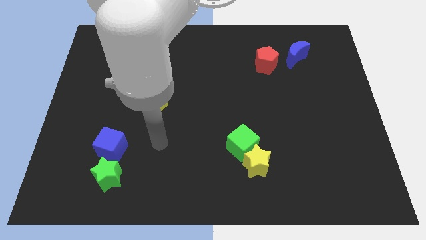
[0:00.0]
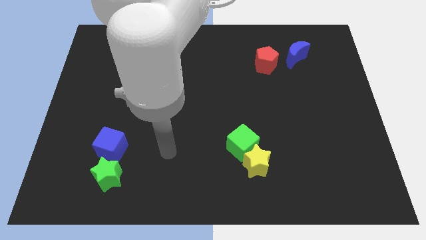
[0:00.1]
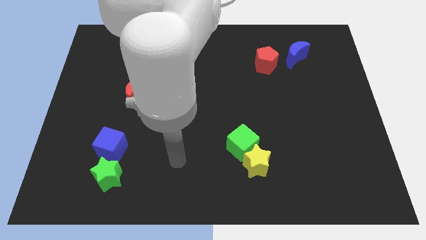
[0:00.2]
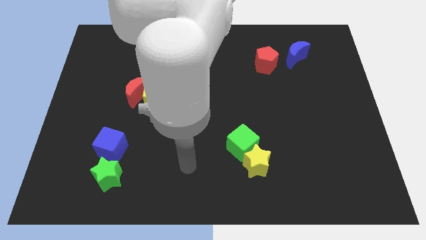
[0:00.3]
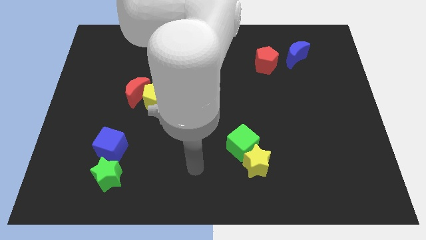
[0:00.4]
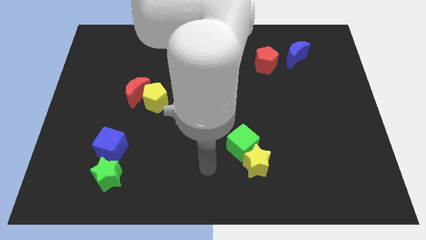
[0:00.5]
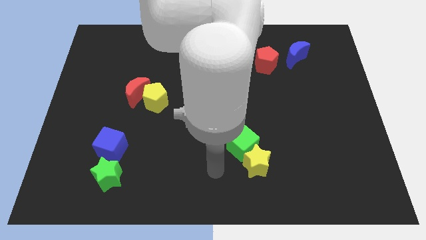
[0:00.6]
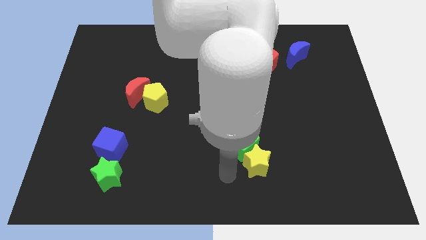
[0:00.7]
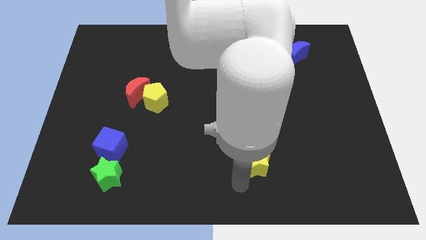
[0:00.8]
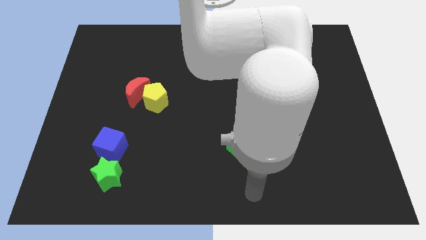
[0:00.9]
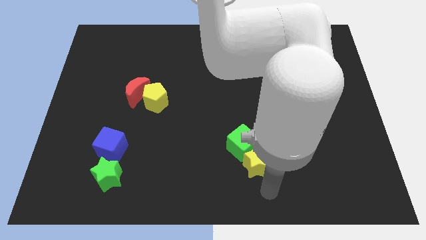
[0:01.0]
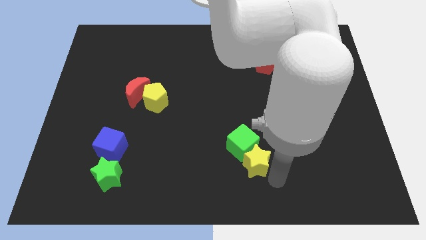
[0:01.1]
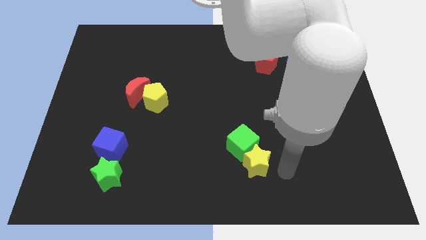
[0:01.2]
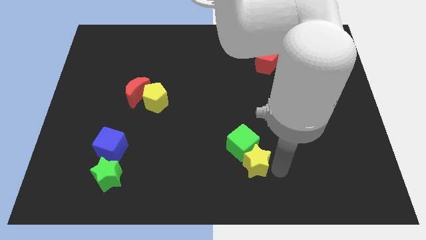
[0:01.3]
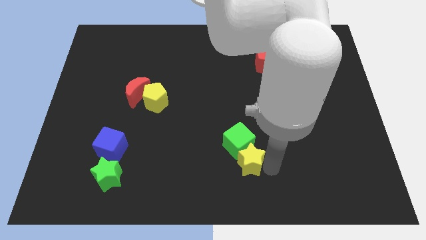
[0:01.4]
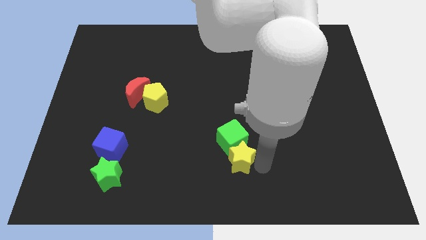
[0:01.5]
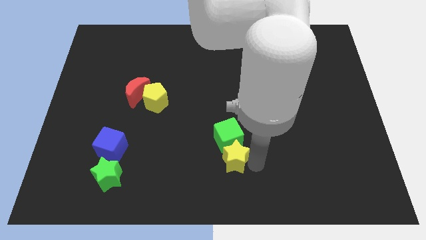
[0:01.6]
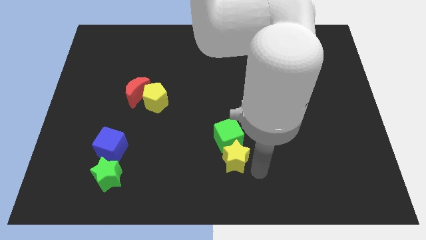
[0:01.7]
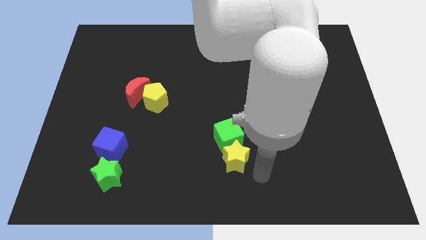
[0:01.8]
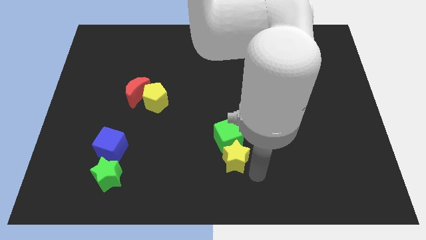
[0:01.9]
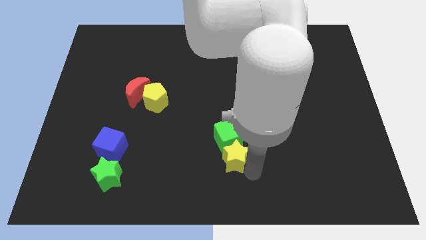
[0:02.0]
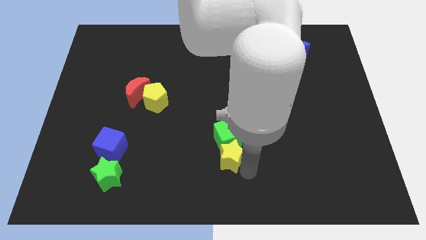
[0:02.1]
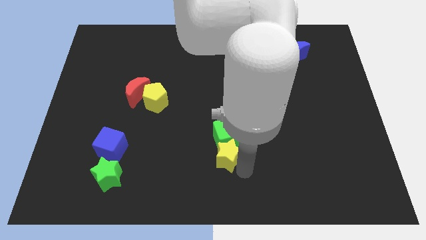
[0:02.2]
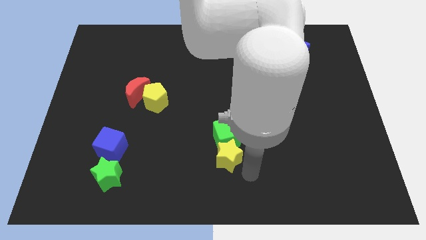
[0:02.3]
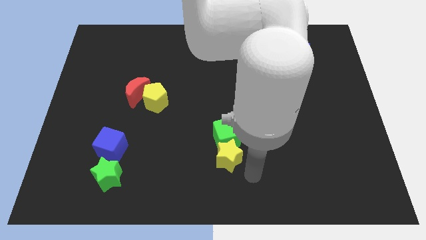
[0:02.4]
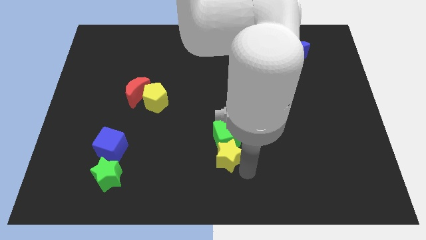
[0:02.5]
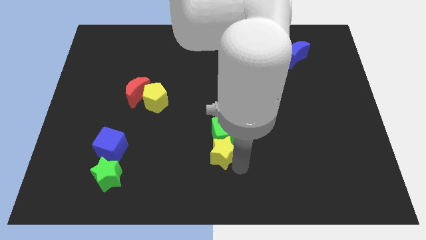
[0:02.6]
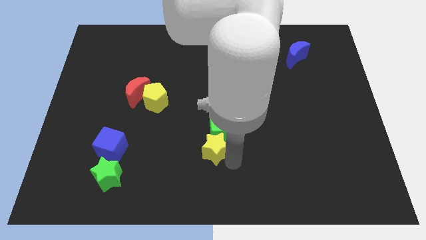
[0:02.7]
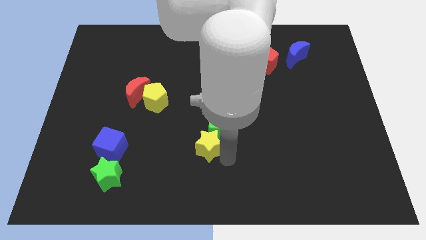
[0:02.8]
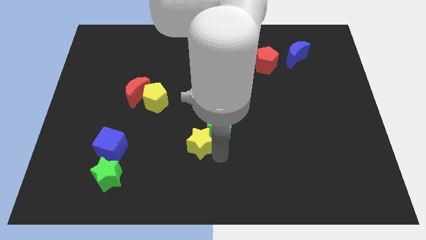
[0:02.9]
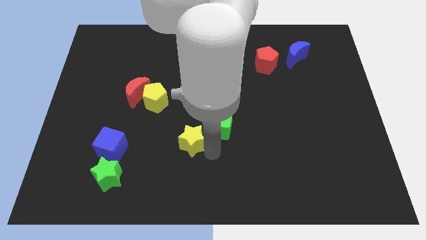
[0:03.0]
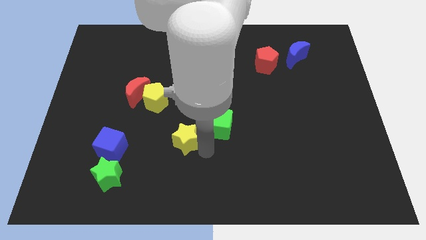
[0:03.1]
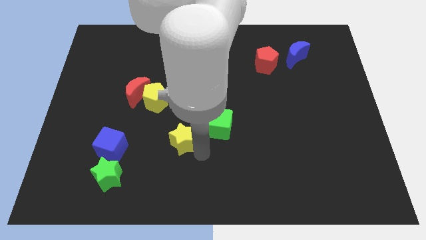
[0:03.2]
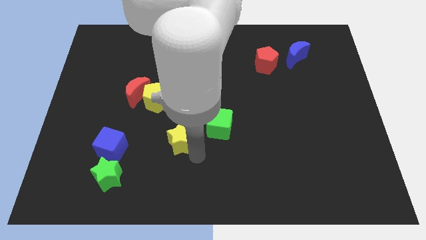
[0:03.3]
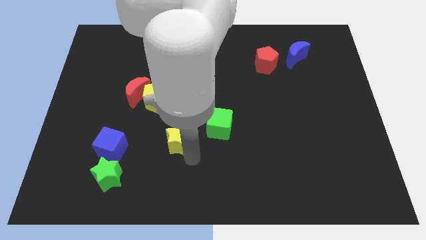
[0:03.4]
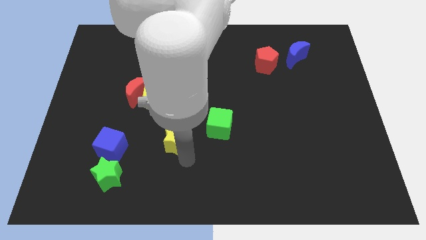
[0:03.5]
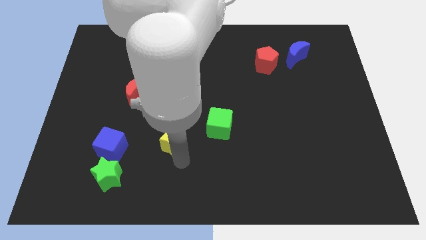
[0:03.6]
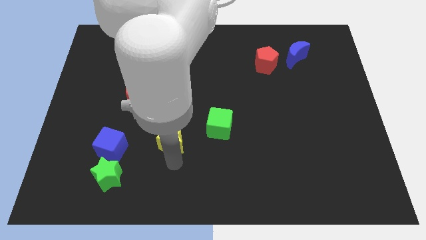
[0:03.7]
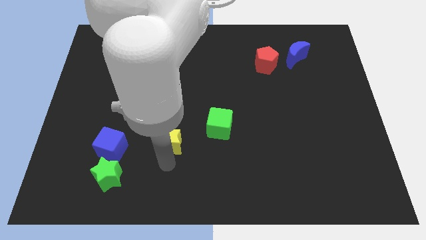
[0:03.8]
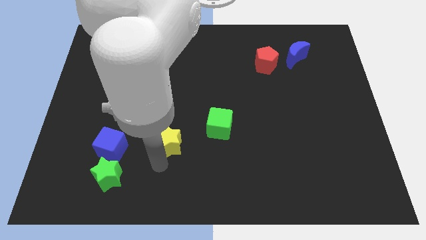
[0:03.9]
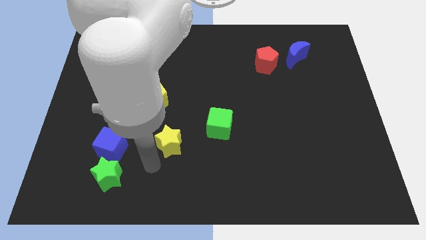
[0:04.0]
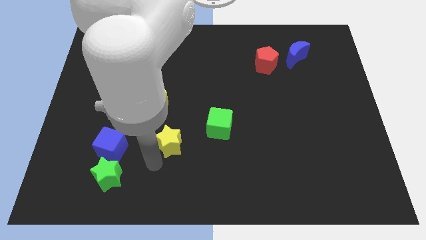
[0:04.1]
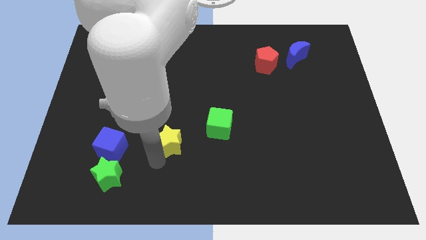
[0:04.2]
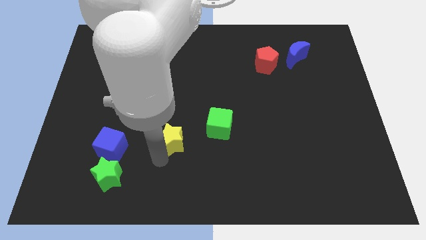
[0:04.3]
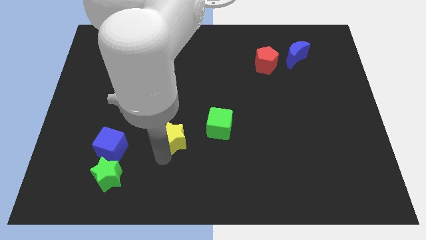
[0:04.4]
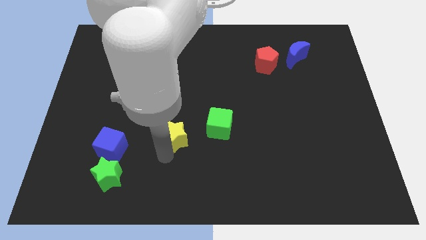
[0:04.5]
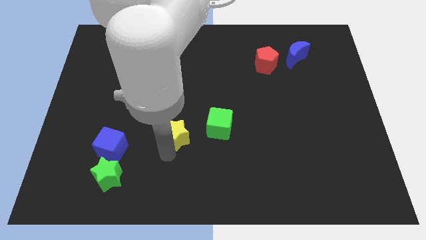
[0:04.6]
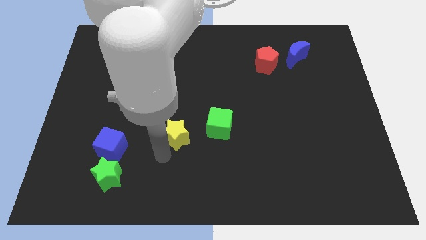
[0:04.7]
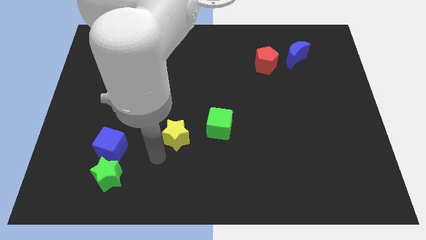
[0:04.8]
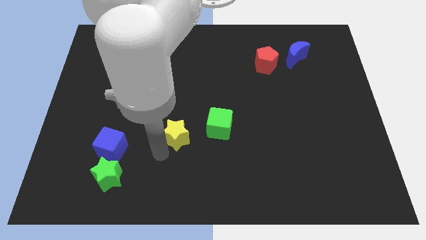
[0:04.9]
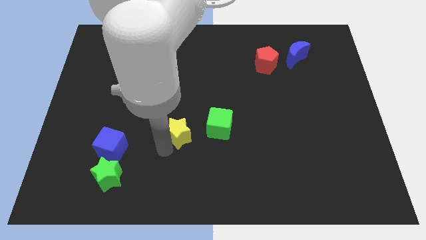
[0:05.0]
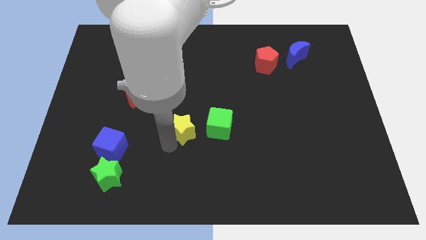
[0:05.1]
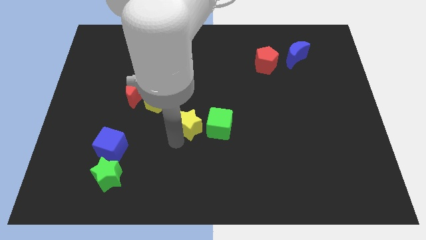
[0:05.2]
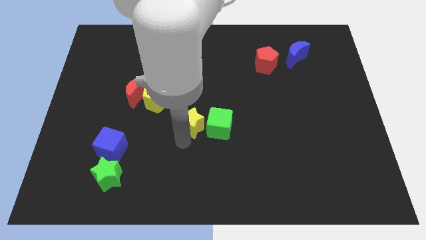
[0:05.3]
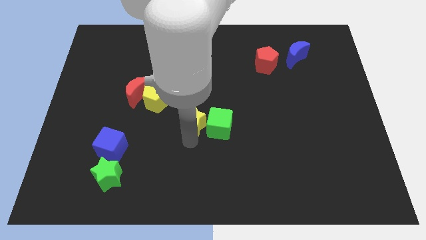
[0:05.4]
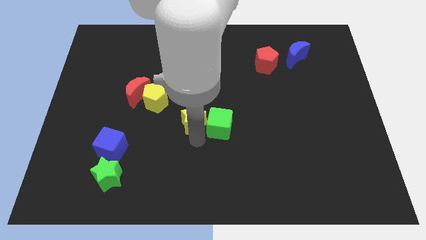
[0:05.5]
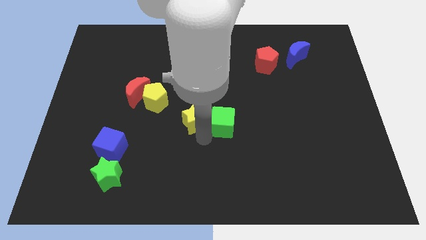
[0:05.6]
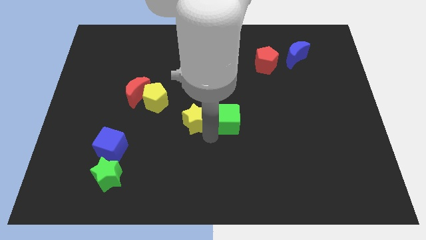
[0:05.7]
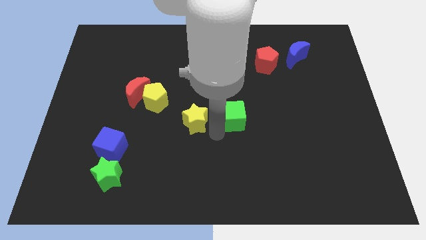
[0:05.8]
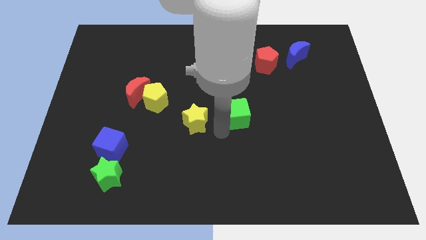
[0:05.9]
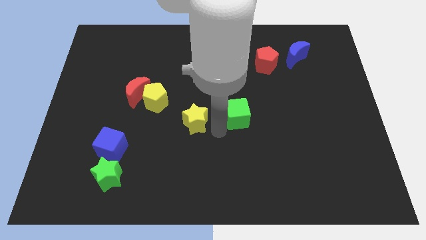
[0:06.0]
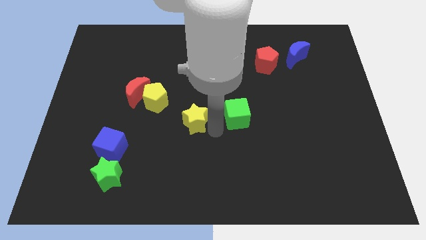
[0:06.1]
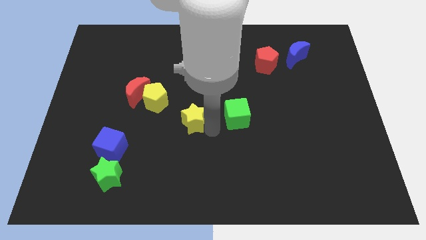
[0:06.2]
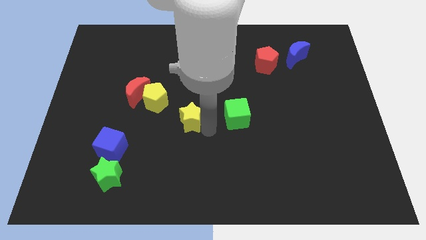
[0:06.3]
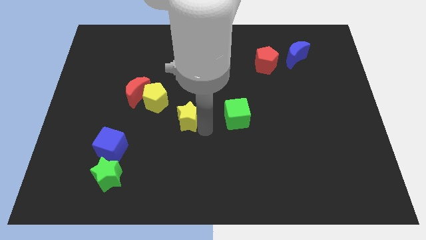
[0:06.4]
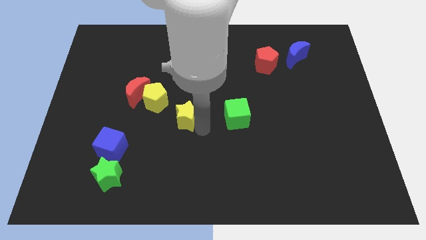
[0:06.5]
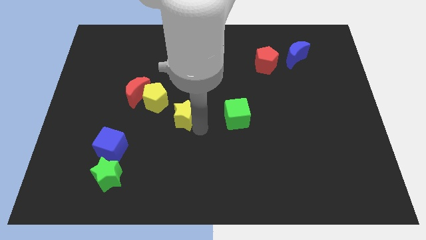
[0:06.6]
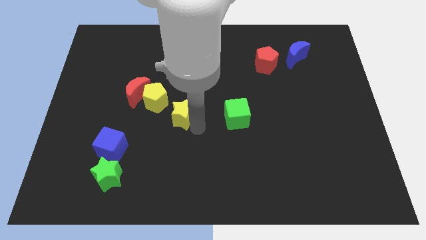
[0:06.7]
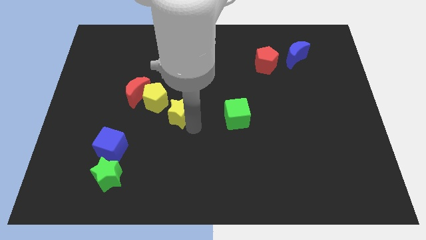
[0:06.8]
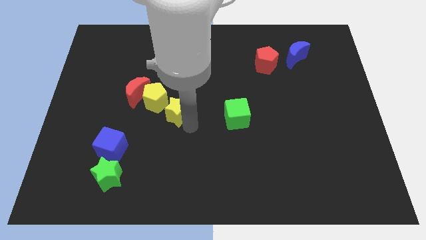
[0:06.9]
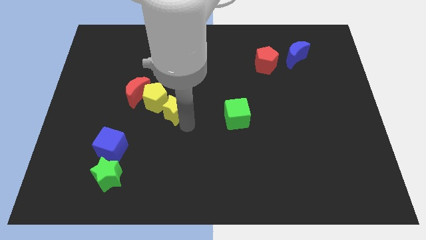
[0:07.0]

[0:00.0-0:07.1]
move the yellow star close to the yellow pentagon

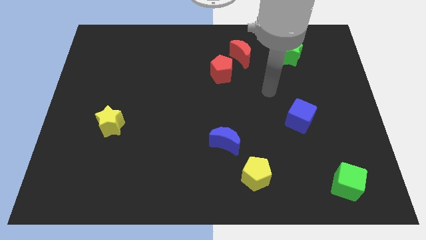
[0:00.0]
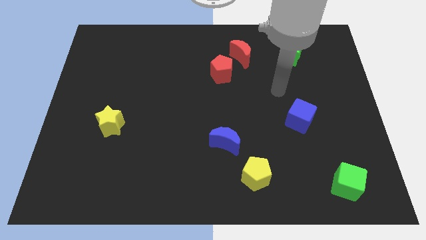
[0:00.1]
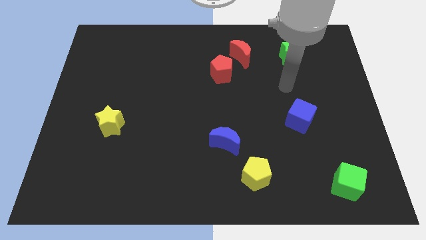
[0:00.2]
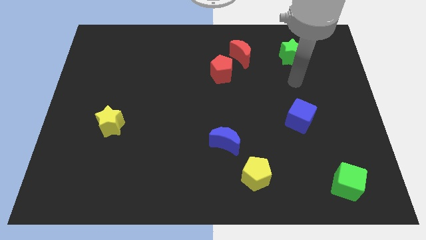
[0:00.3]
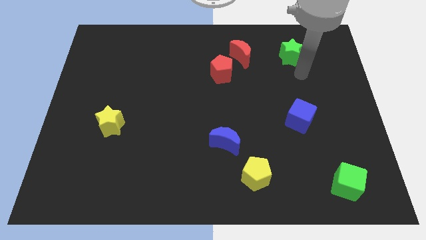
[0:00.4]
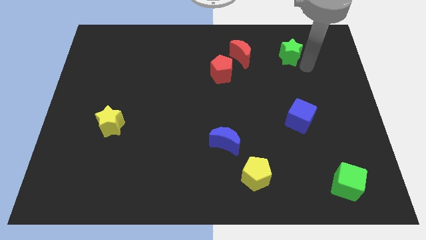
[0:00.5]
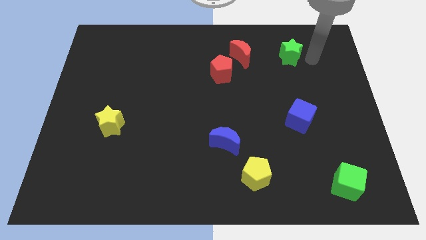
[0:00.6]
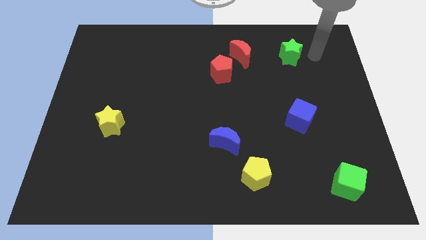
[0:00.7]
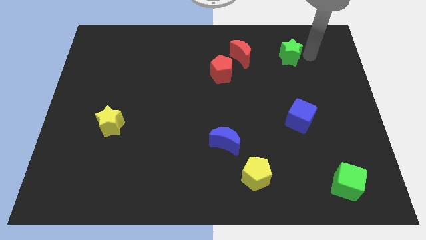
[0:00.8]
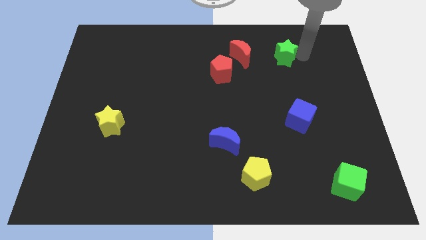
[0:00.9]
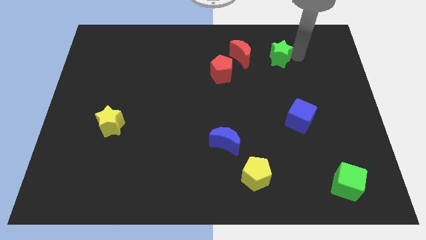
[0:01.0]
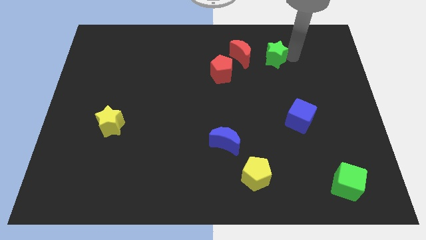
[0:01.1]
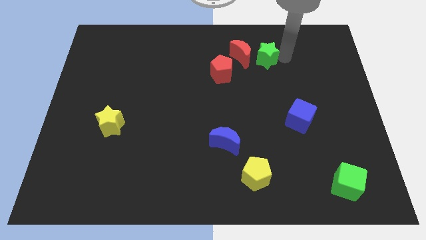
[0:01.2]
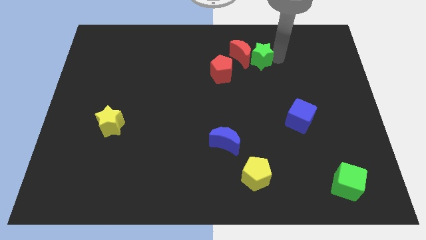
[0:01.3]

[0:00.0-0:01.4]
push the green star next to the red moon
